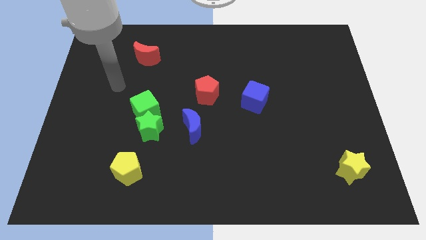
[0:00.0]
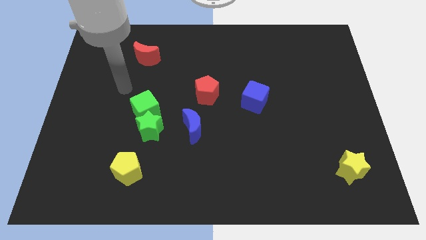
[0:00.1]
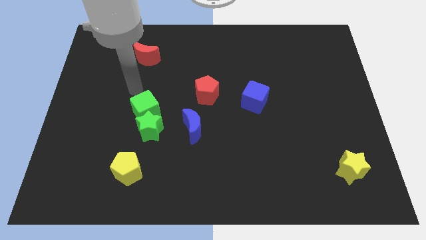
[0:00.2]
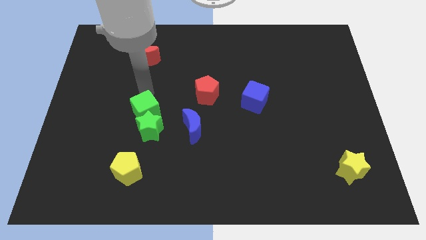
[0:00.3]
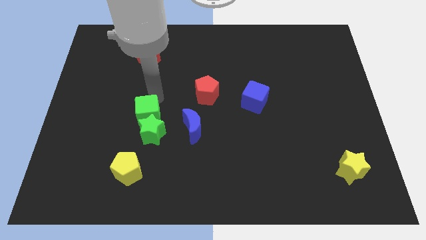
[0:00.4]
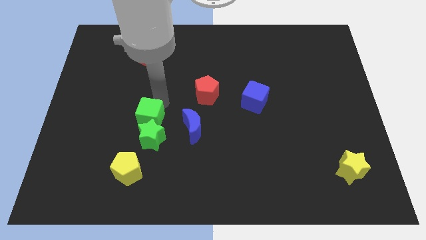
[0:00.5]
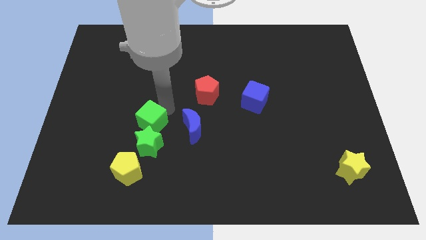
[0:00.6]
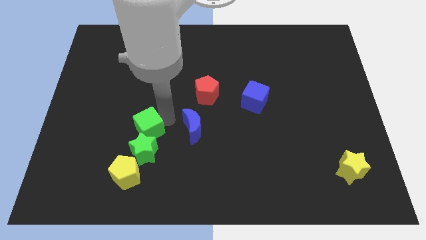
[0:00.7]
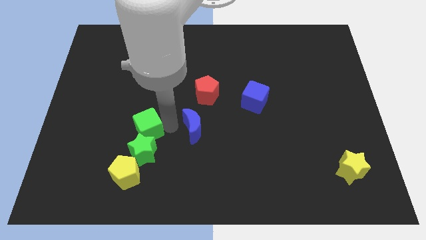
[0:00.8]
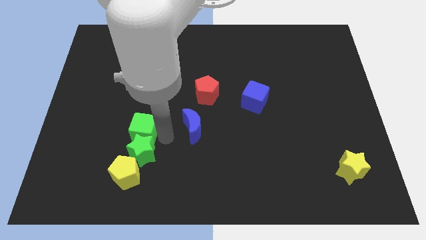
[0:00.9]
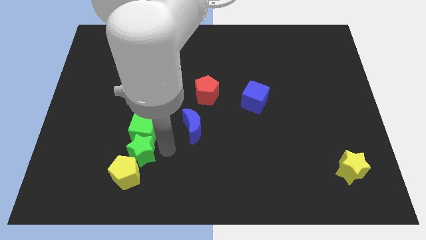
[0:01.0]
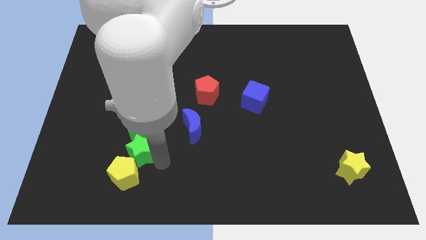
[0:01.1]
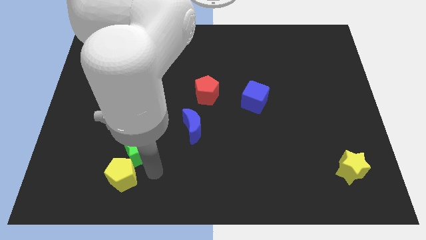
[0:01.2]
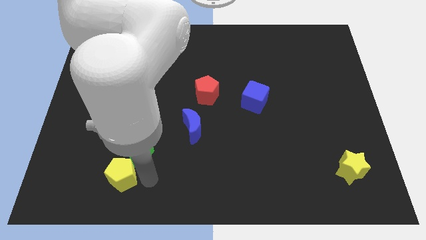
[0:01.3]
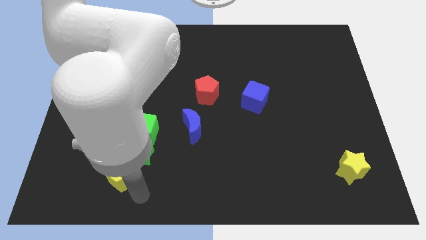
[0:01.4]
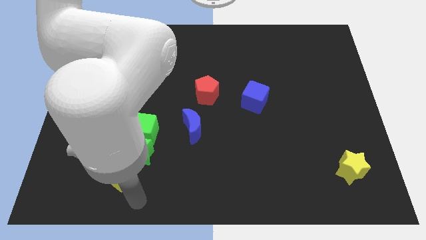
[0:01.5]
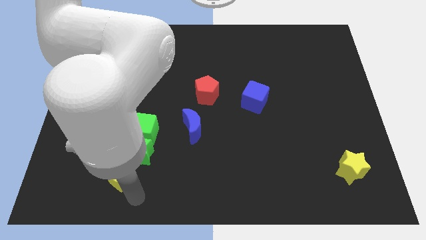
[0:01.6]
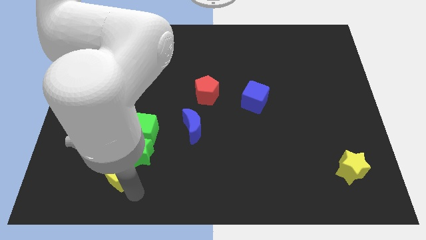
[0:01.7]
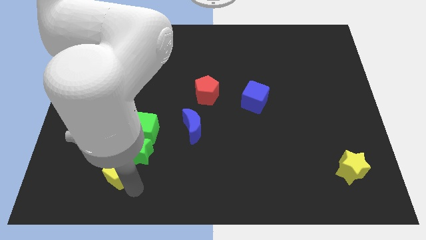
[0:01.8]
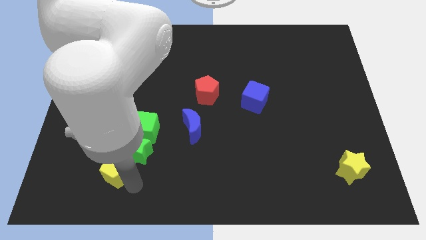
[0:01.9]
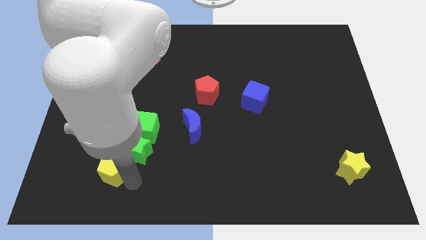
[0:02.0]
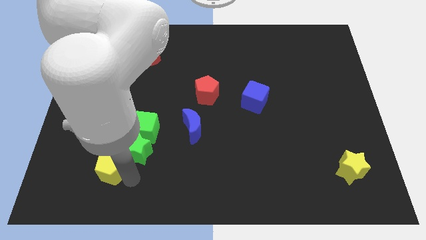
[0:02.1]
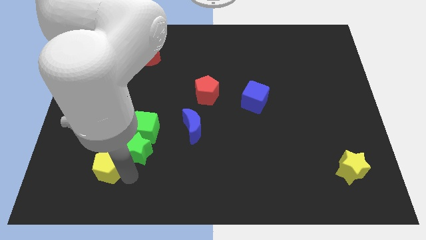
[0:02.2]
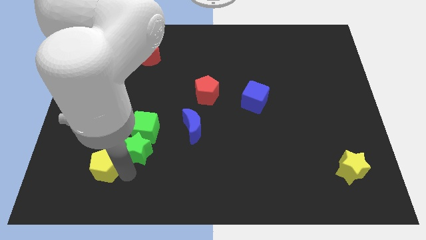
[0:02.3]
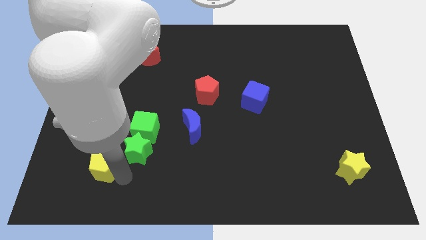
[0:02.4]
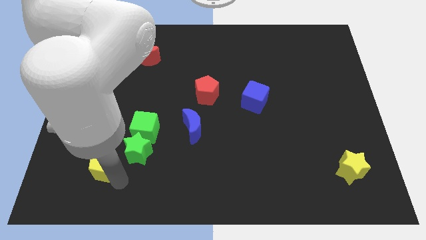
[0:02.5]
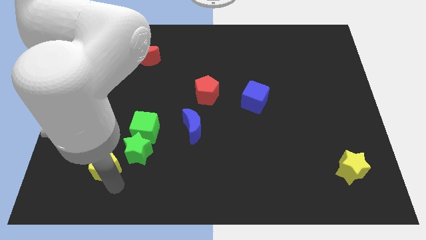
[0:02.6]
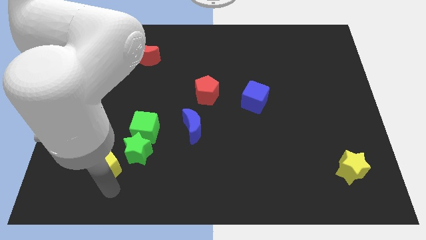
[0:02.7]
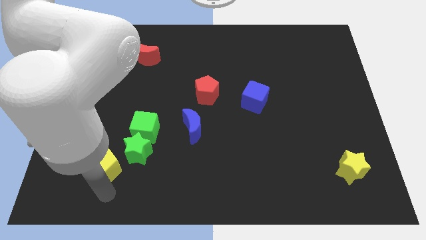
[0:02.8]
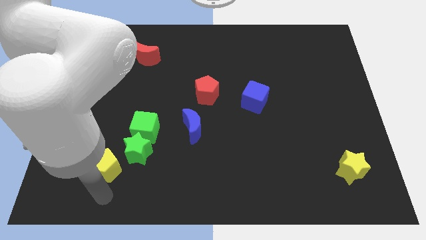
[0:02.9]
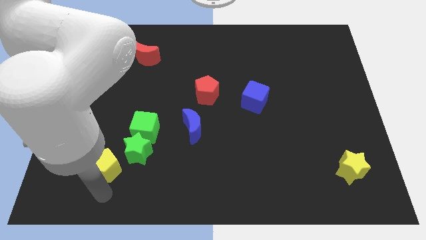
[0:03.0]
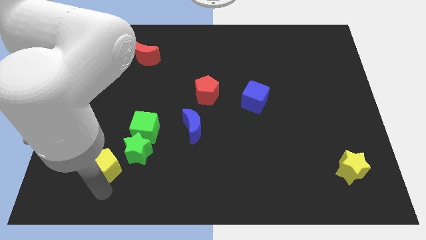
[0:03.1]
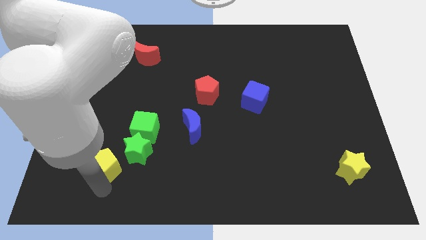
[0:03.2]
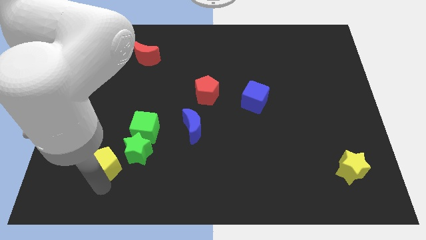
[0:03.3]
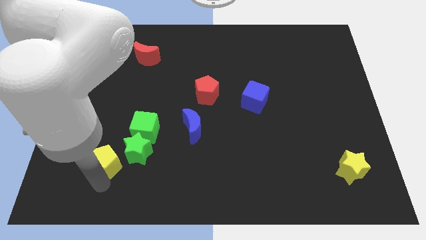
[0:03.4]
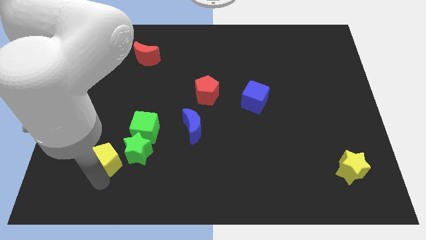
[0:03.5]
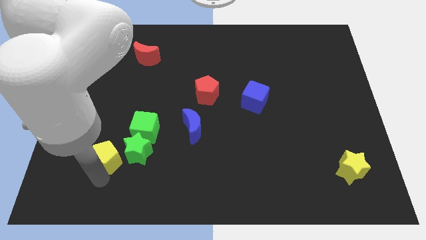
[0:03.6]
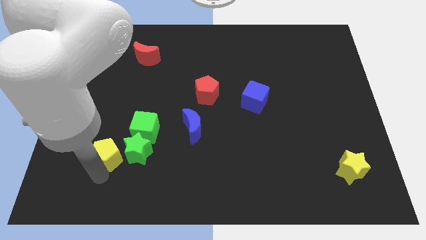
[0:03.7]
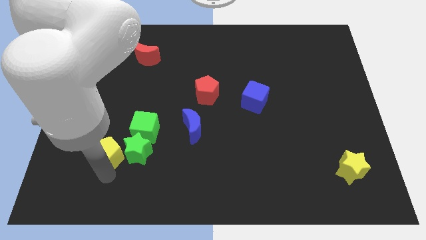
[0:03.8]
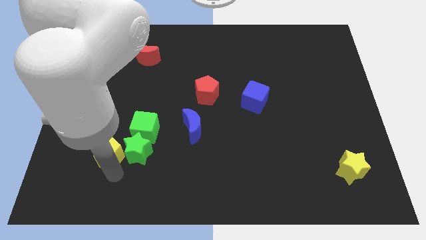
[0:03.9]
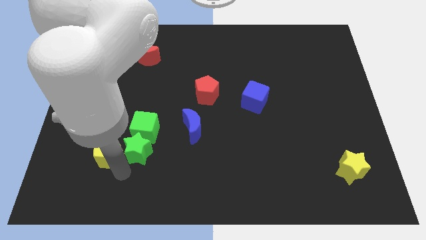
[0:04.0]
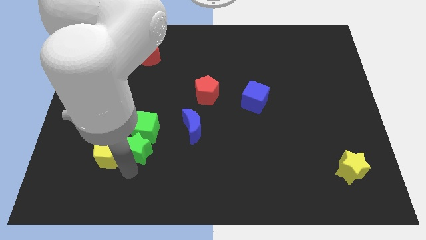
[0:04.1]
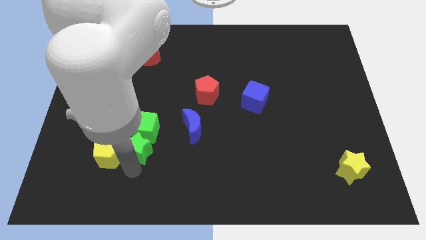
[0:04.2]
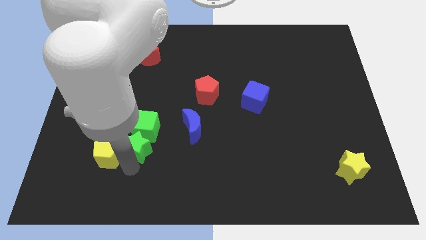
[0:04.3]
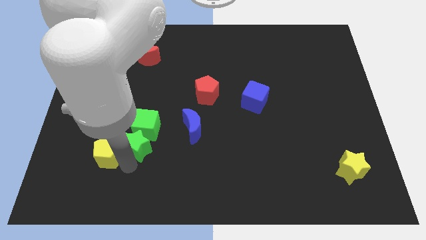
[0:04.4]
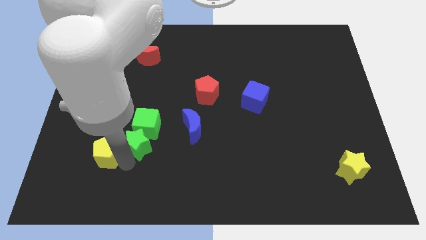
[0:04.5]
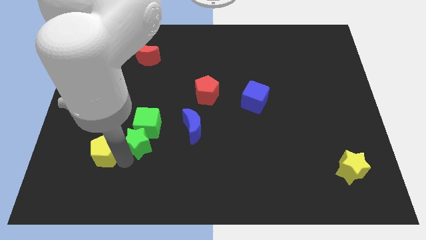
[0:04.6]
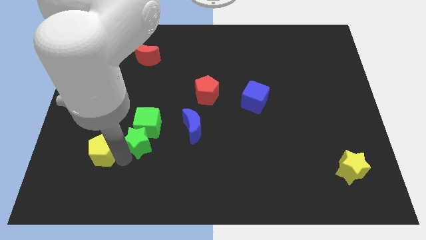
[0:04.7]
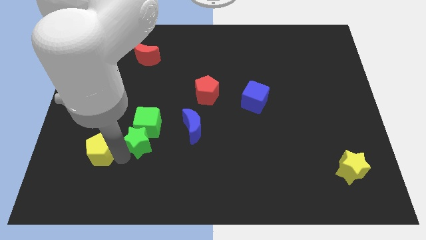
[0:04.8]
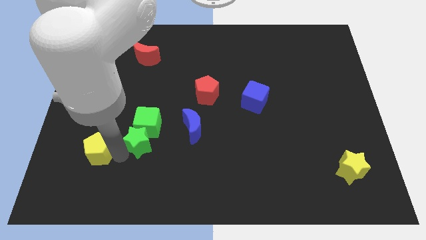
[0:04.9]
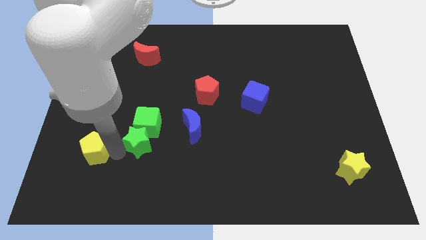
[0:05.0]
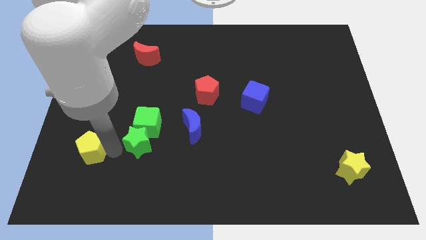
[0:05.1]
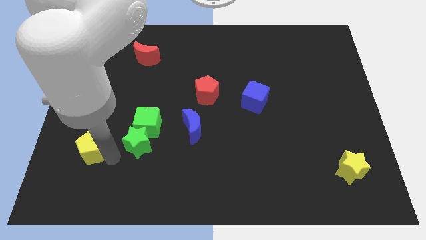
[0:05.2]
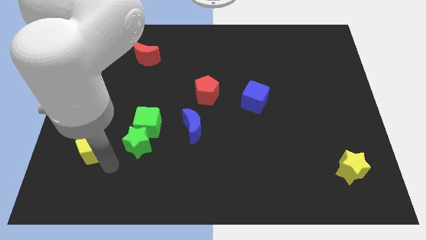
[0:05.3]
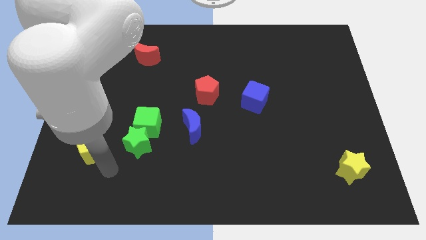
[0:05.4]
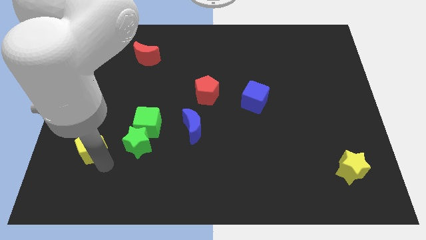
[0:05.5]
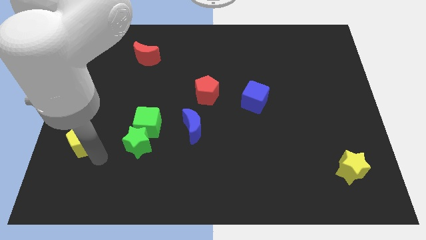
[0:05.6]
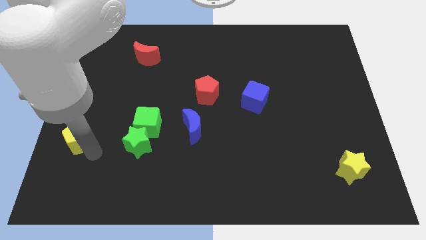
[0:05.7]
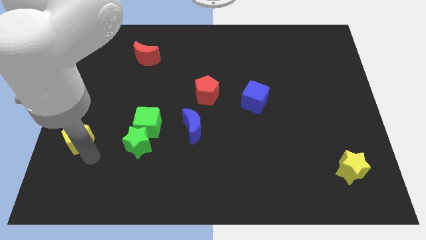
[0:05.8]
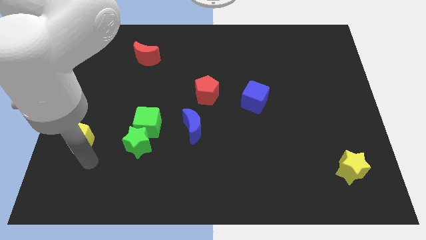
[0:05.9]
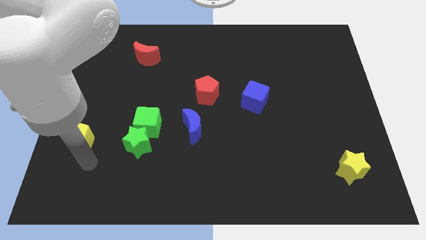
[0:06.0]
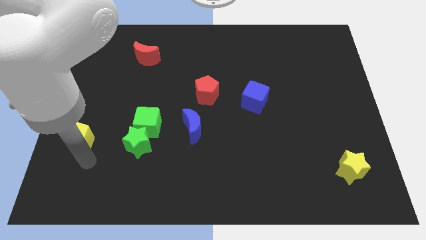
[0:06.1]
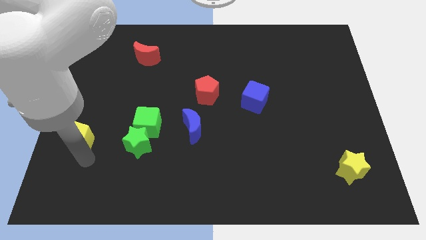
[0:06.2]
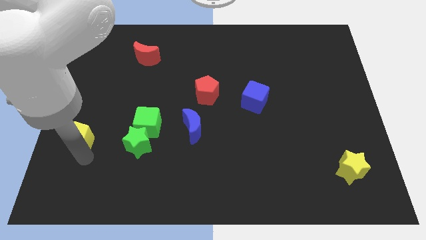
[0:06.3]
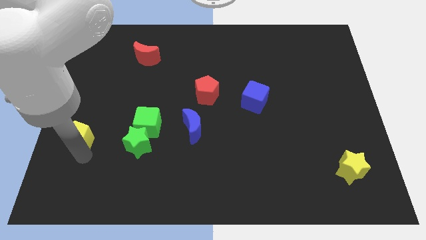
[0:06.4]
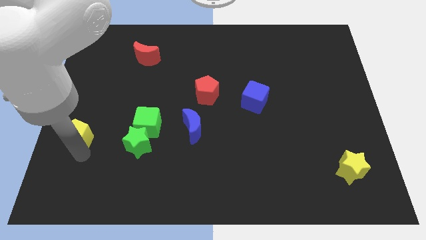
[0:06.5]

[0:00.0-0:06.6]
move the yellow pentagon to the left side of the board

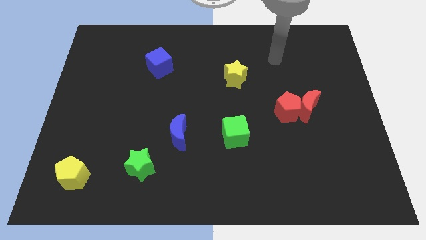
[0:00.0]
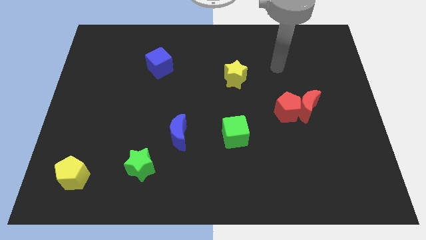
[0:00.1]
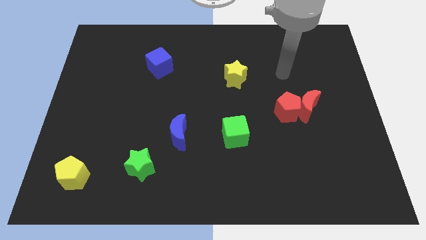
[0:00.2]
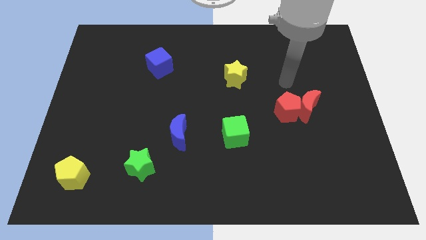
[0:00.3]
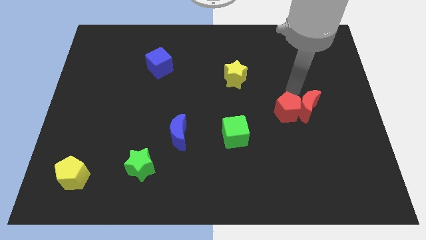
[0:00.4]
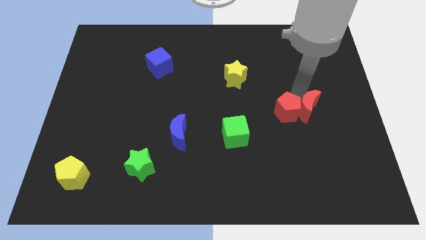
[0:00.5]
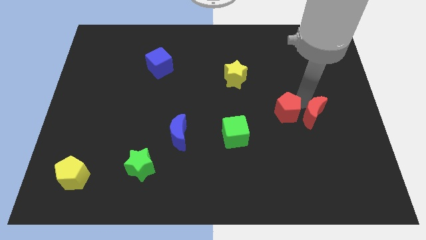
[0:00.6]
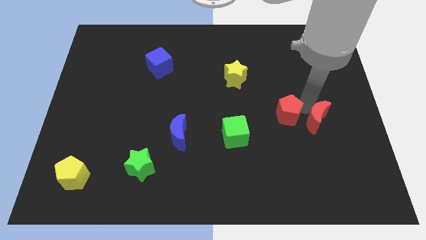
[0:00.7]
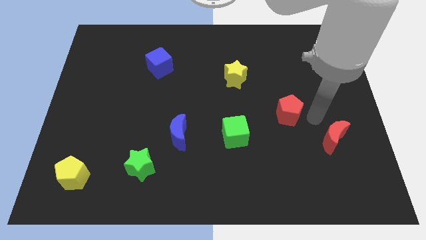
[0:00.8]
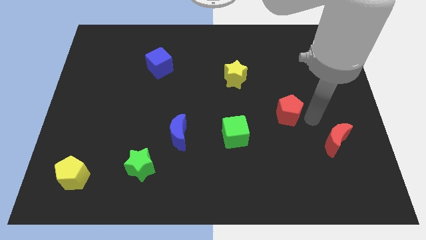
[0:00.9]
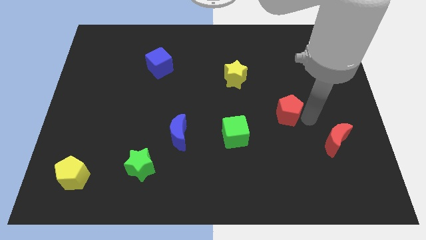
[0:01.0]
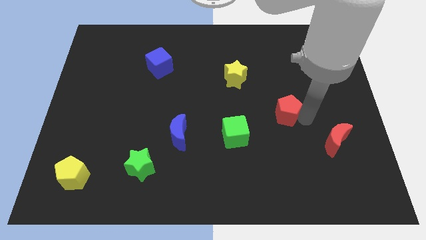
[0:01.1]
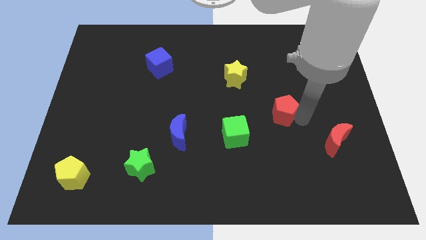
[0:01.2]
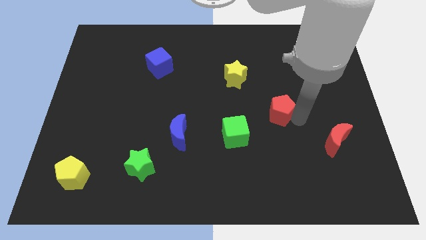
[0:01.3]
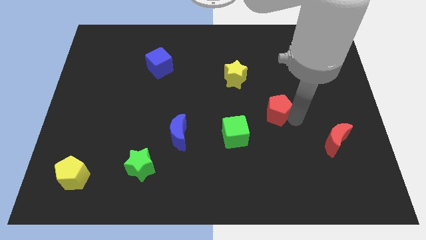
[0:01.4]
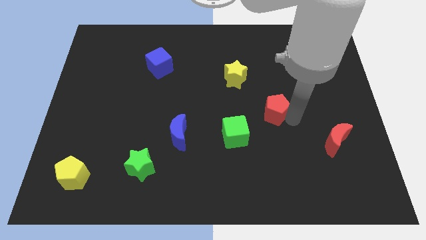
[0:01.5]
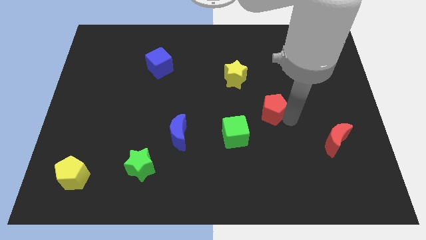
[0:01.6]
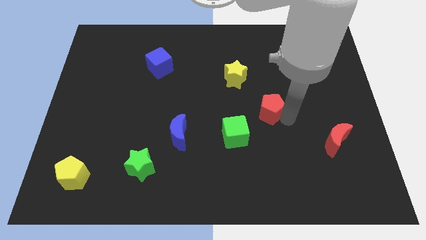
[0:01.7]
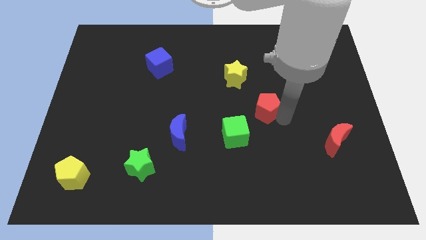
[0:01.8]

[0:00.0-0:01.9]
put the red pentagon to the middle of the board
